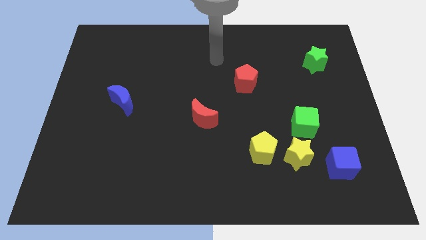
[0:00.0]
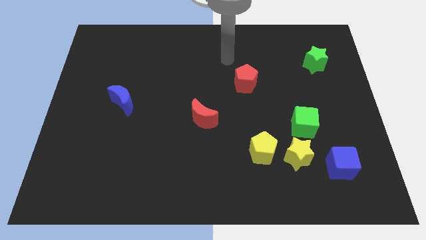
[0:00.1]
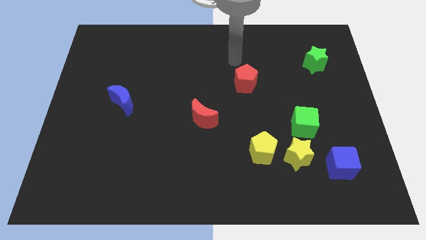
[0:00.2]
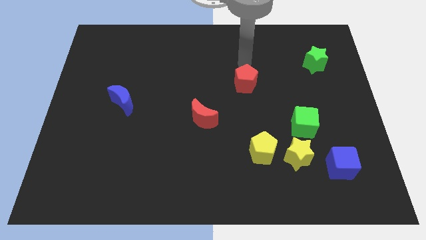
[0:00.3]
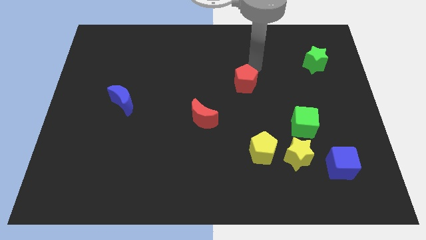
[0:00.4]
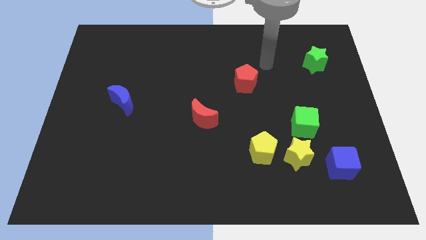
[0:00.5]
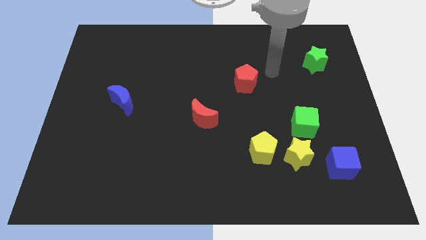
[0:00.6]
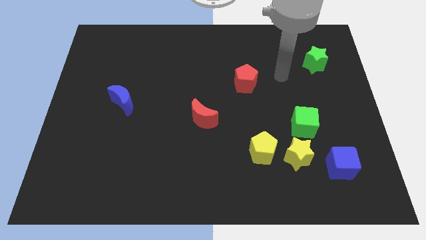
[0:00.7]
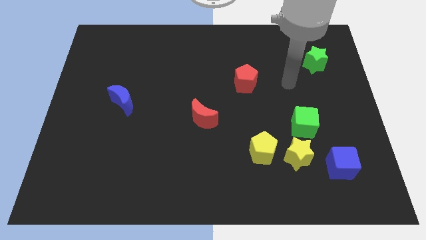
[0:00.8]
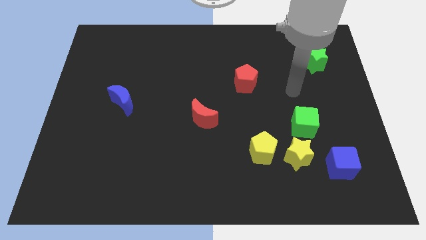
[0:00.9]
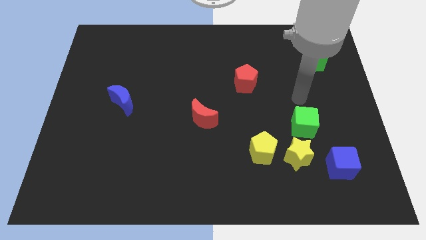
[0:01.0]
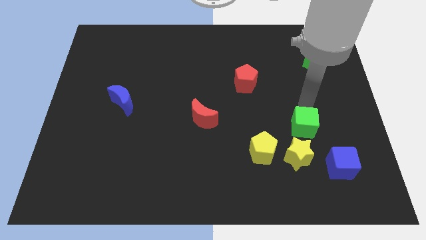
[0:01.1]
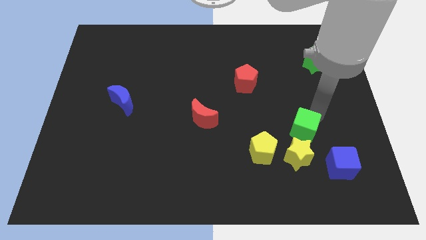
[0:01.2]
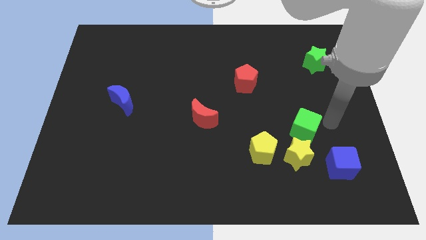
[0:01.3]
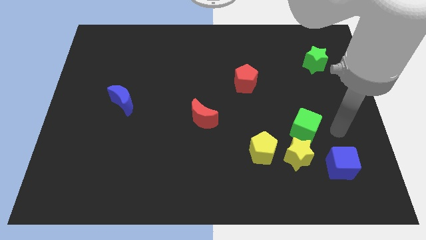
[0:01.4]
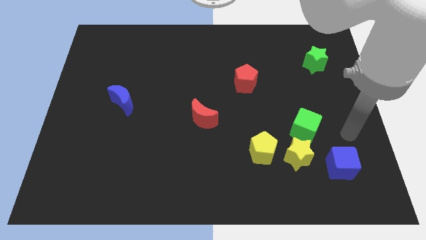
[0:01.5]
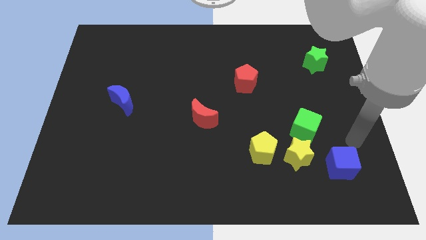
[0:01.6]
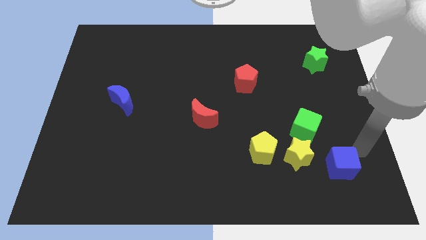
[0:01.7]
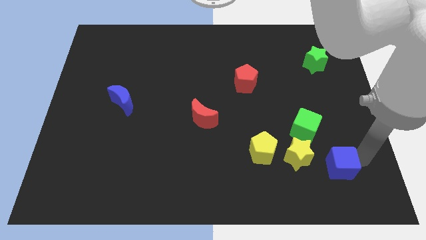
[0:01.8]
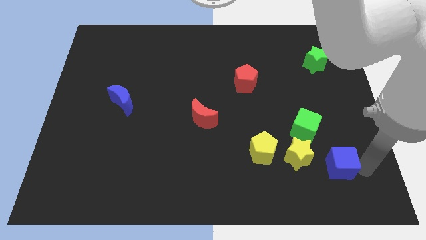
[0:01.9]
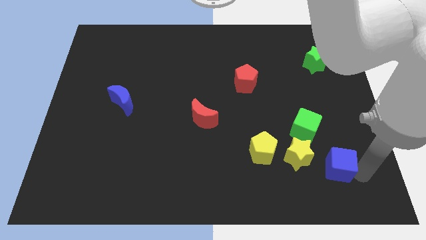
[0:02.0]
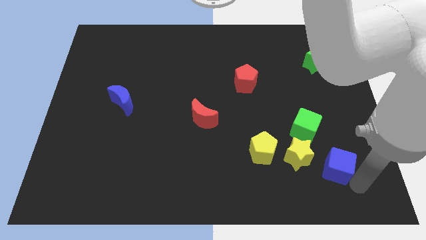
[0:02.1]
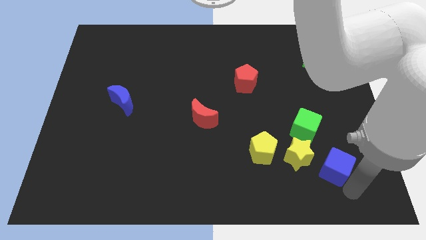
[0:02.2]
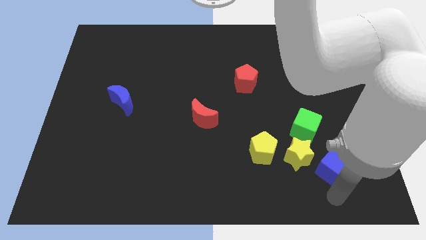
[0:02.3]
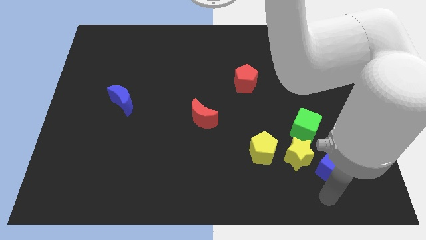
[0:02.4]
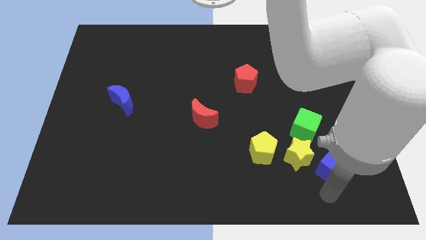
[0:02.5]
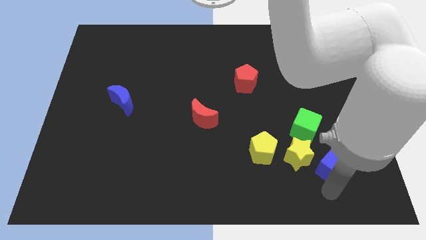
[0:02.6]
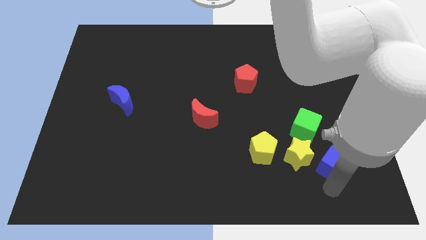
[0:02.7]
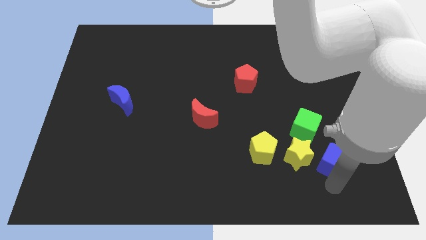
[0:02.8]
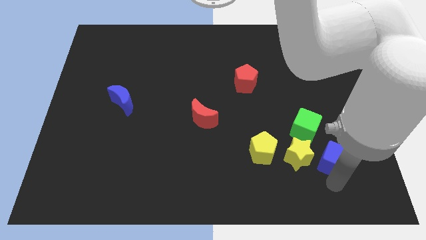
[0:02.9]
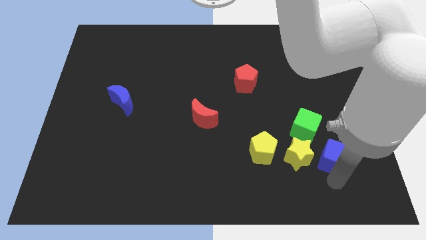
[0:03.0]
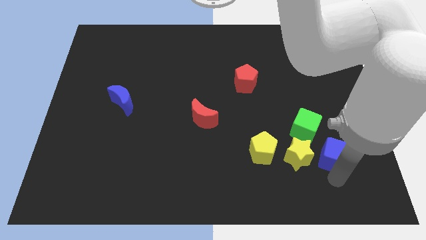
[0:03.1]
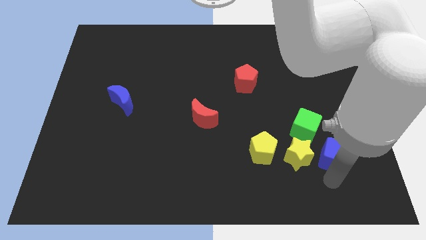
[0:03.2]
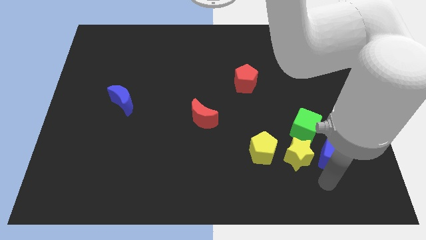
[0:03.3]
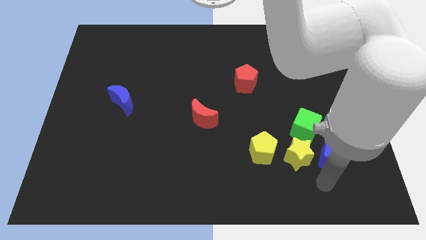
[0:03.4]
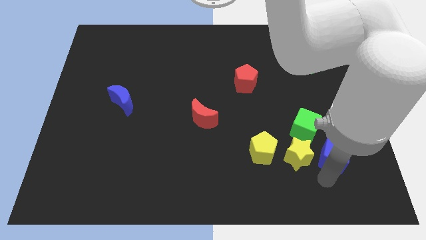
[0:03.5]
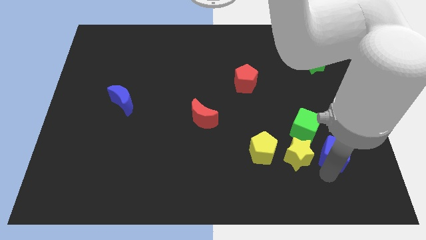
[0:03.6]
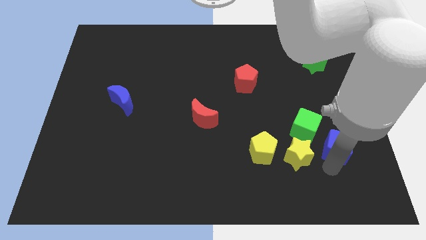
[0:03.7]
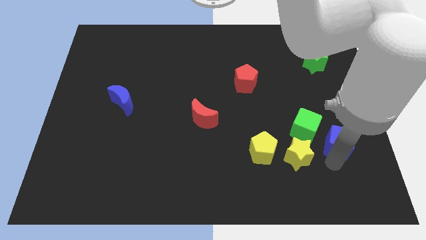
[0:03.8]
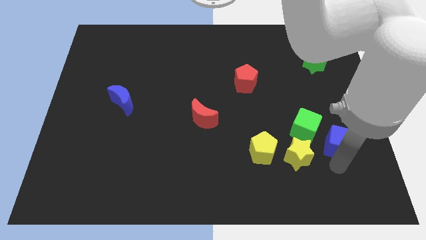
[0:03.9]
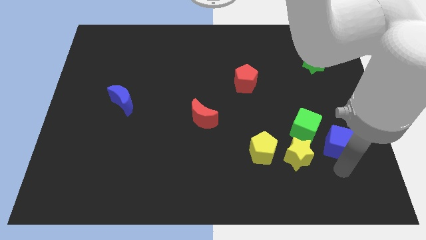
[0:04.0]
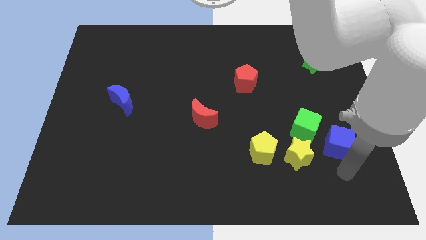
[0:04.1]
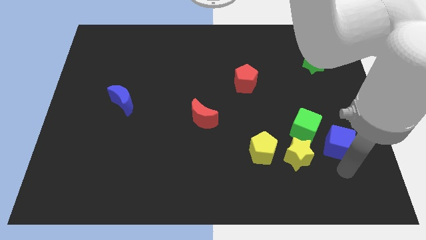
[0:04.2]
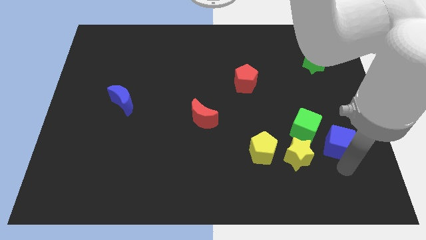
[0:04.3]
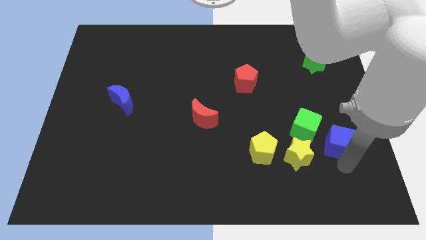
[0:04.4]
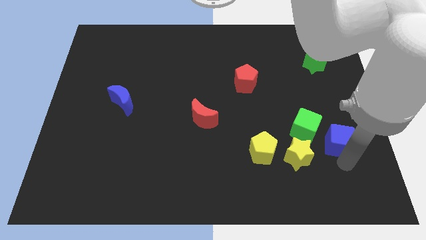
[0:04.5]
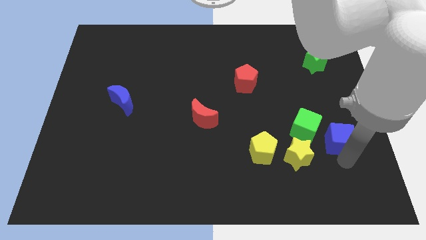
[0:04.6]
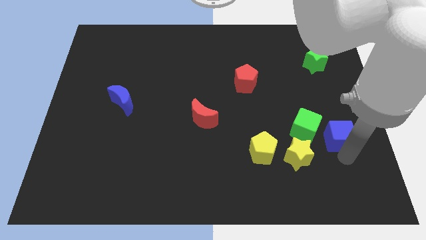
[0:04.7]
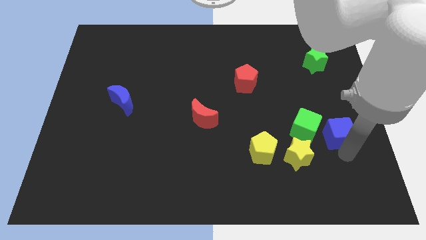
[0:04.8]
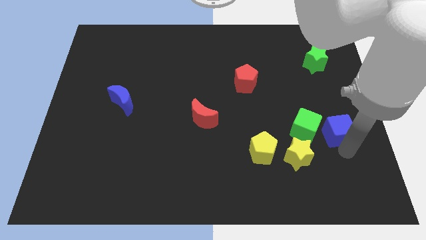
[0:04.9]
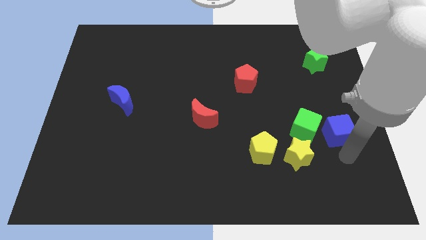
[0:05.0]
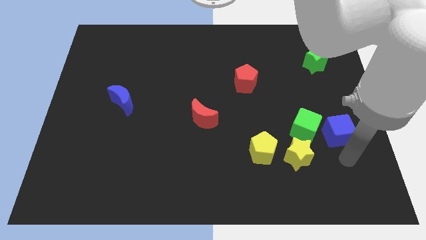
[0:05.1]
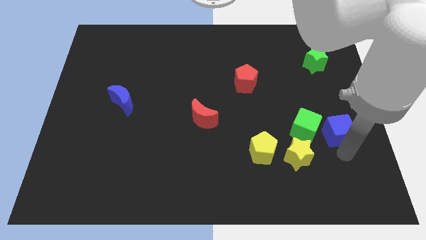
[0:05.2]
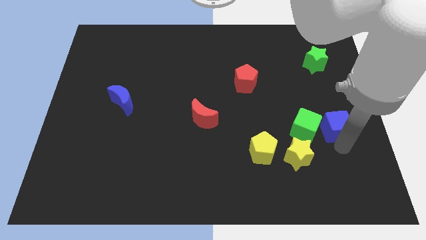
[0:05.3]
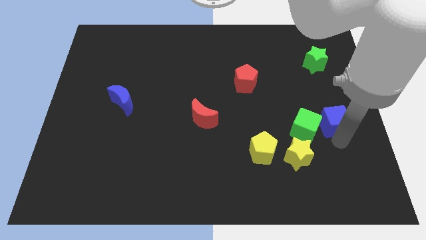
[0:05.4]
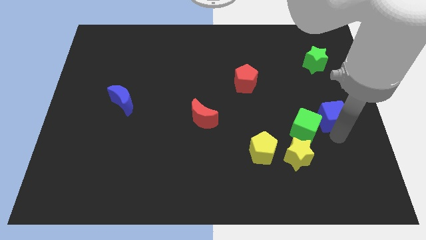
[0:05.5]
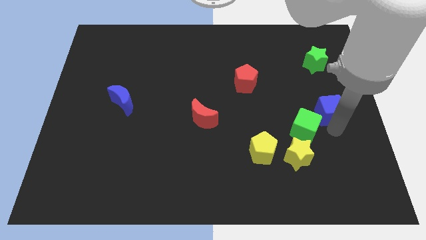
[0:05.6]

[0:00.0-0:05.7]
slide the blue cube to the bottom of the green star

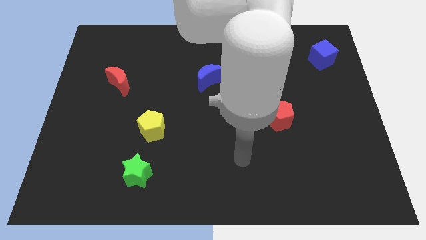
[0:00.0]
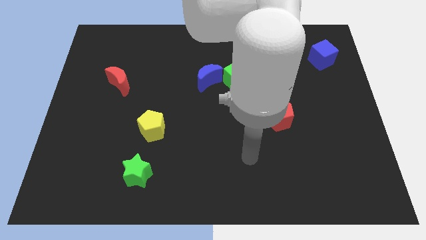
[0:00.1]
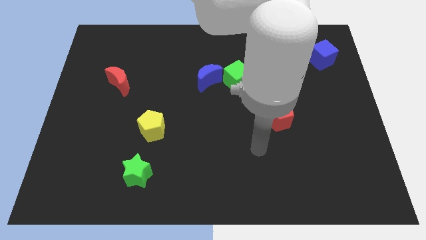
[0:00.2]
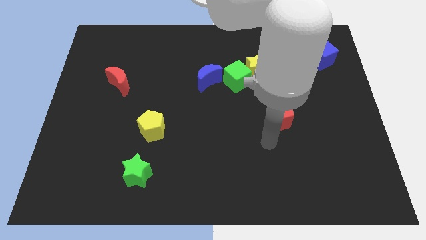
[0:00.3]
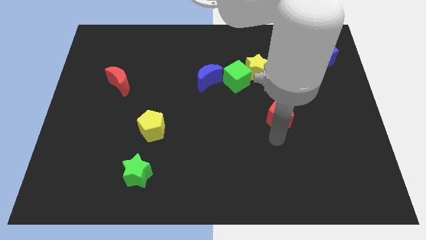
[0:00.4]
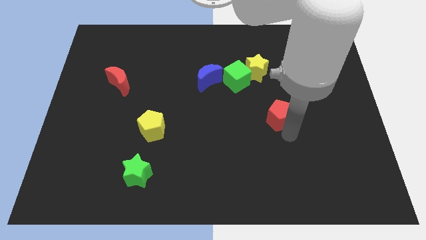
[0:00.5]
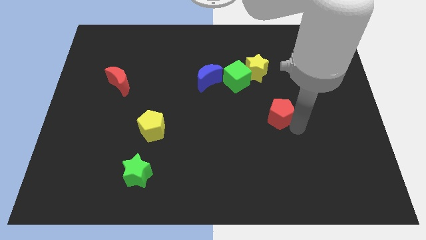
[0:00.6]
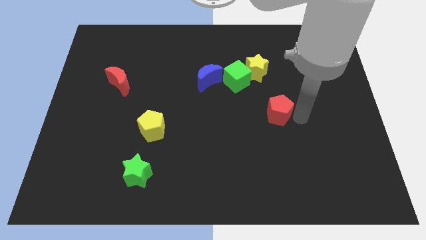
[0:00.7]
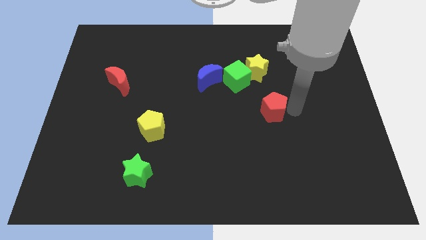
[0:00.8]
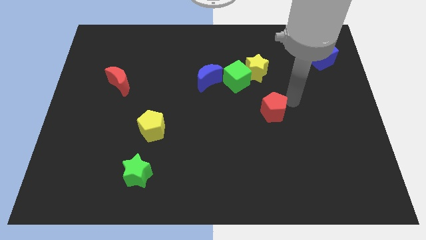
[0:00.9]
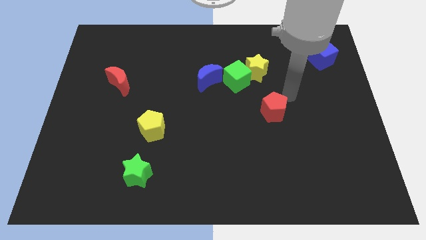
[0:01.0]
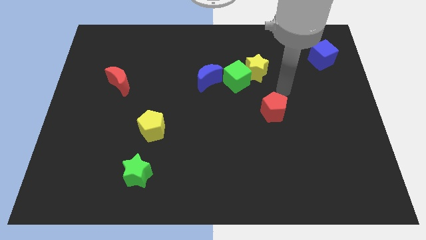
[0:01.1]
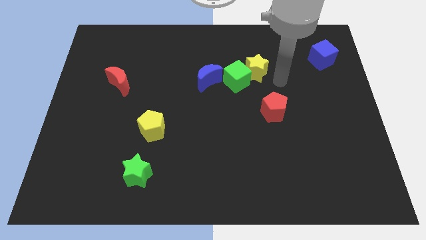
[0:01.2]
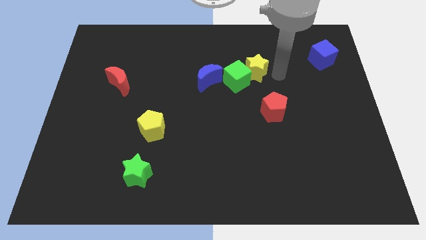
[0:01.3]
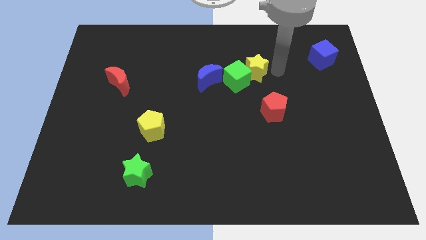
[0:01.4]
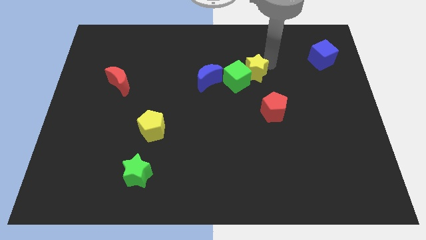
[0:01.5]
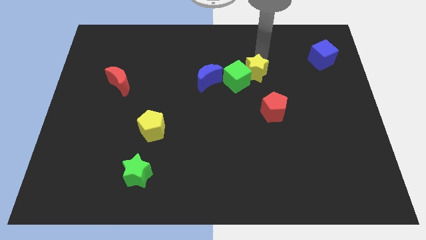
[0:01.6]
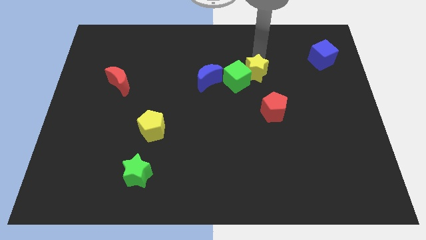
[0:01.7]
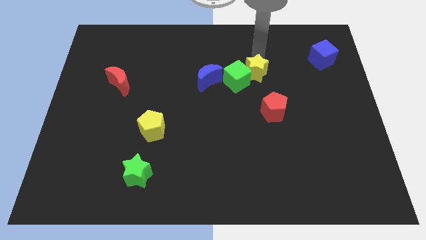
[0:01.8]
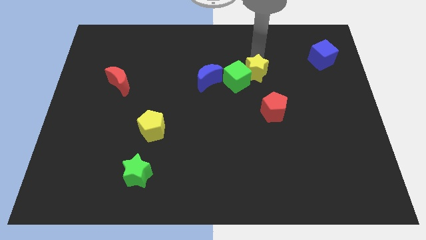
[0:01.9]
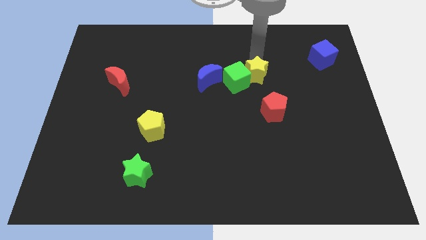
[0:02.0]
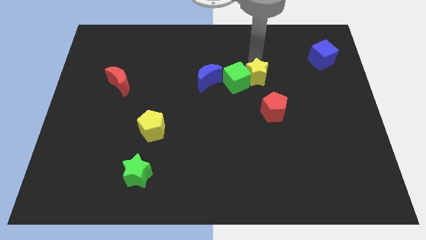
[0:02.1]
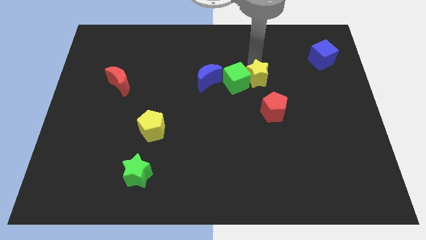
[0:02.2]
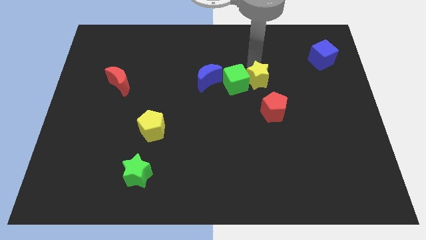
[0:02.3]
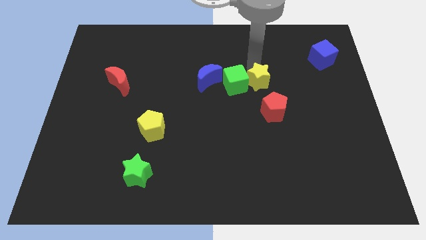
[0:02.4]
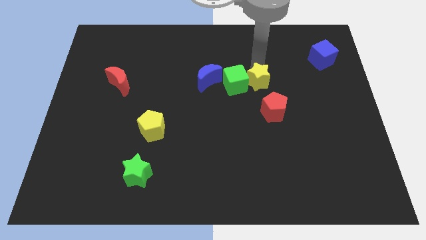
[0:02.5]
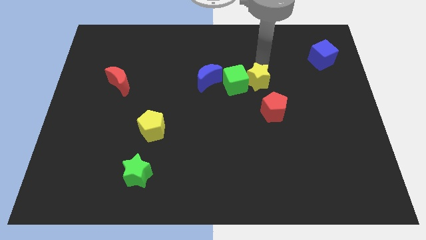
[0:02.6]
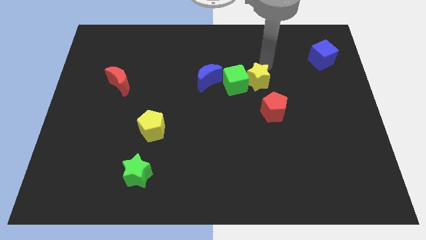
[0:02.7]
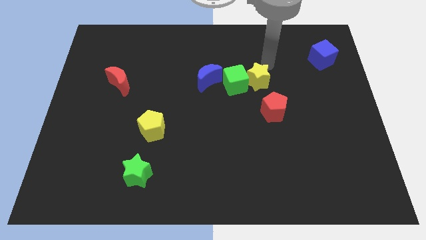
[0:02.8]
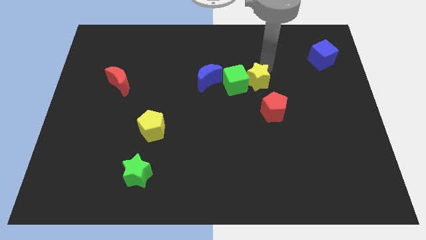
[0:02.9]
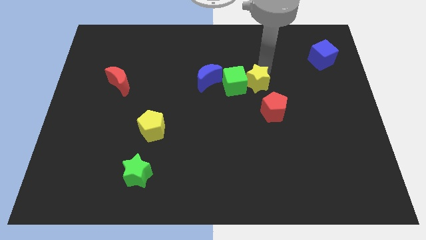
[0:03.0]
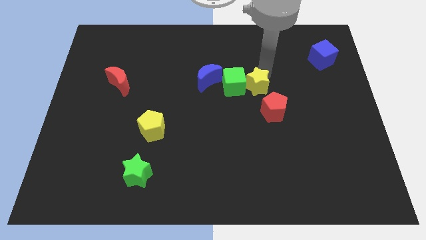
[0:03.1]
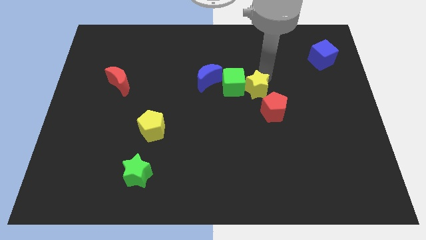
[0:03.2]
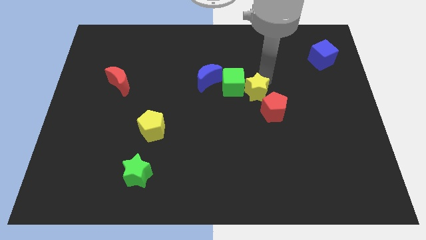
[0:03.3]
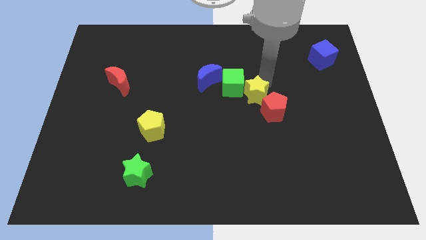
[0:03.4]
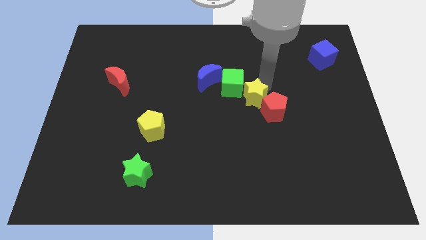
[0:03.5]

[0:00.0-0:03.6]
push the yellow star just left of the red pentagon
